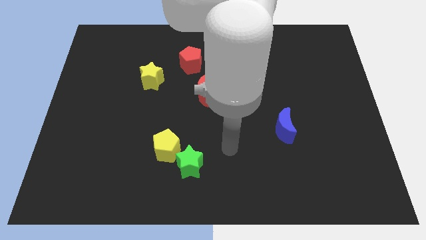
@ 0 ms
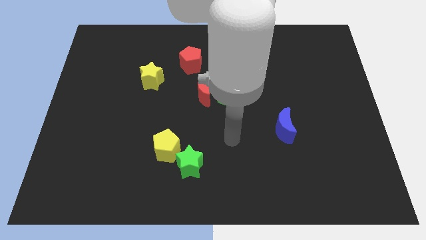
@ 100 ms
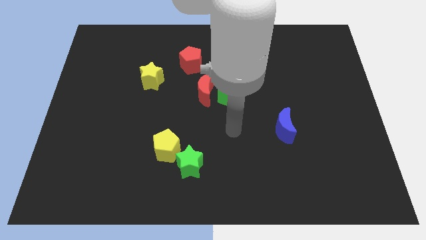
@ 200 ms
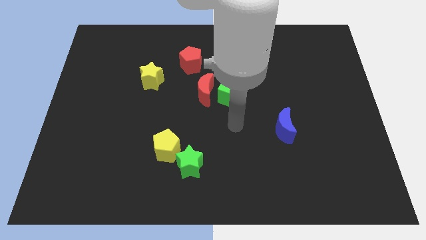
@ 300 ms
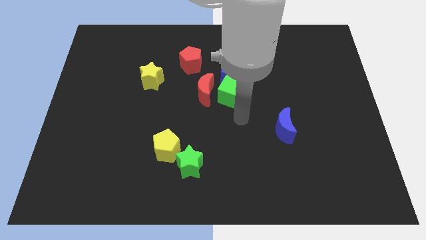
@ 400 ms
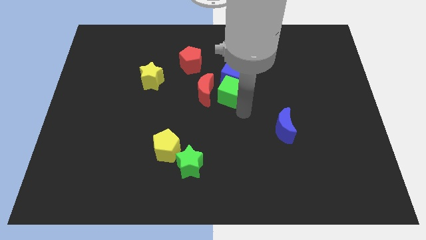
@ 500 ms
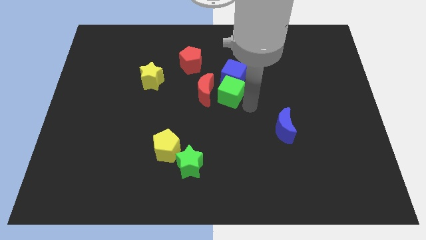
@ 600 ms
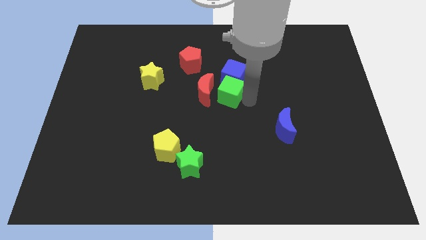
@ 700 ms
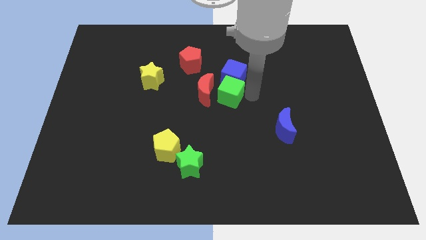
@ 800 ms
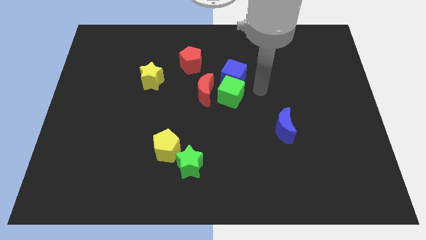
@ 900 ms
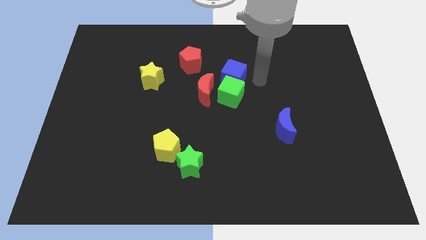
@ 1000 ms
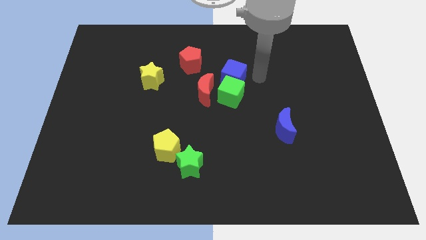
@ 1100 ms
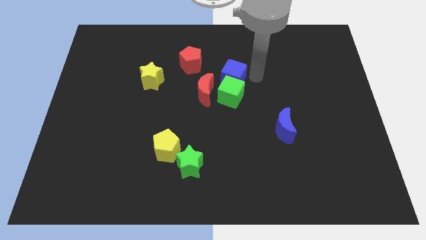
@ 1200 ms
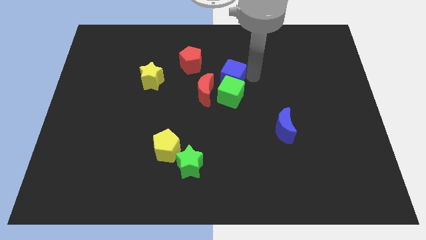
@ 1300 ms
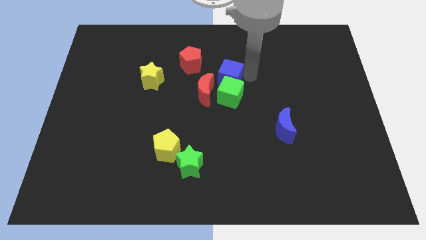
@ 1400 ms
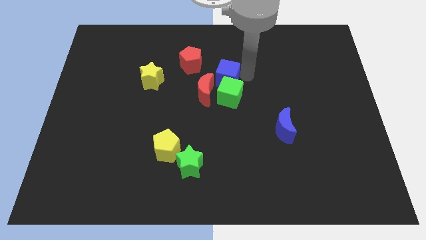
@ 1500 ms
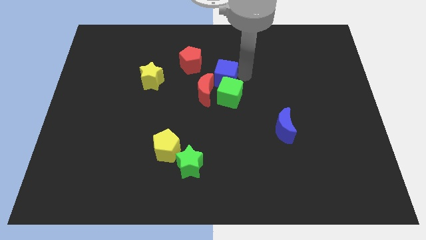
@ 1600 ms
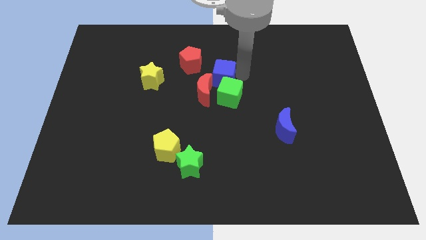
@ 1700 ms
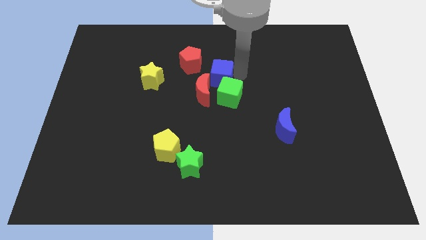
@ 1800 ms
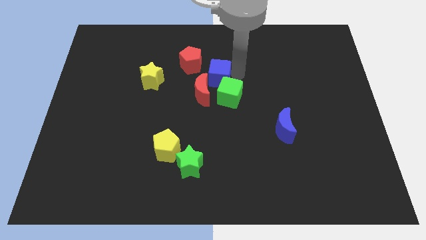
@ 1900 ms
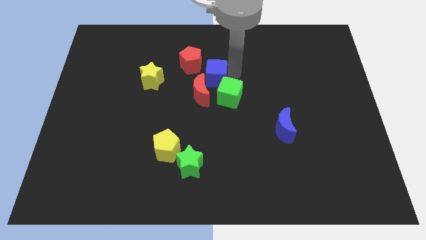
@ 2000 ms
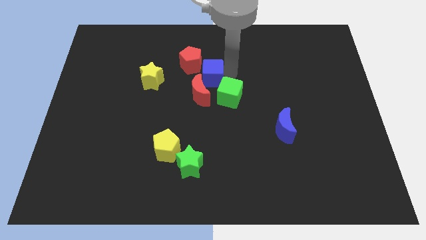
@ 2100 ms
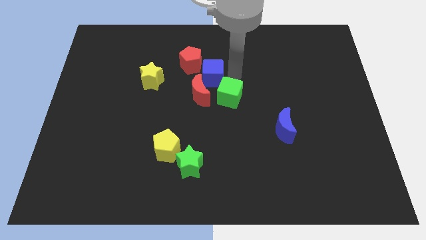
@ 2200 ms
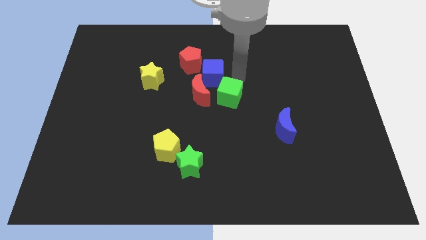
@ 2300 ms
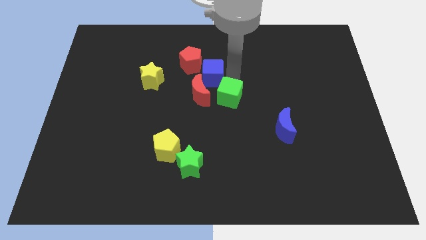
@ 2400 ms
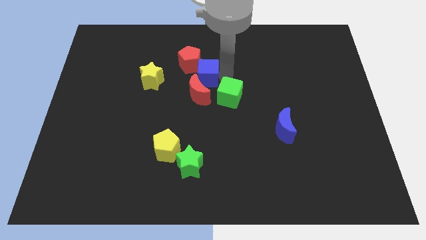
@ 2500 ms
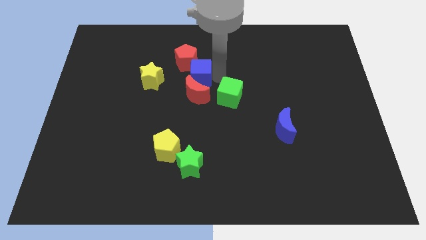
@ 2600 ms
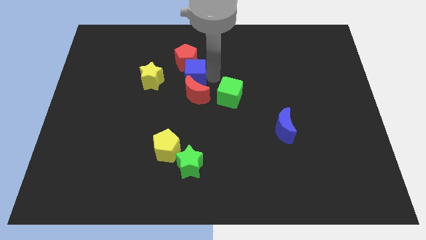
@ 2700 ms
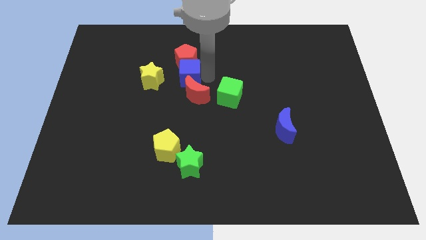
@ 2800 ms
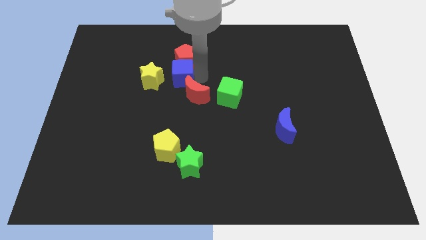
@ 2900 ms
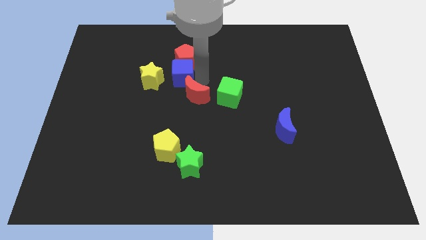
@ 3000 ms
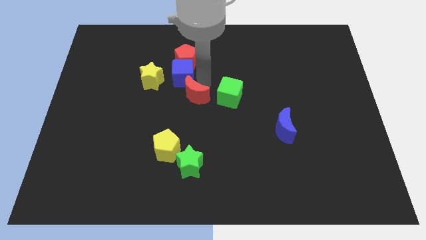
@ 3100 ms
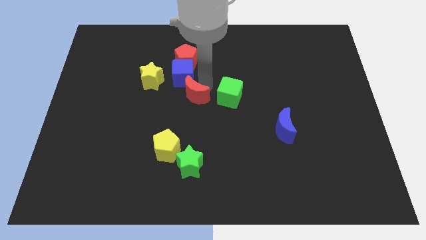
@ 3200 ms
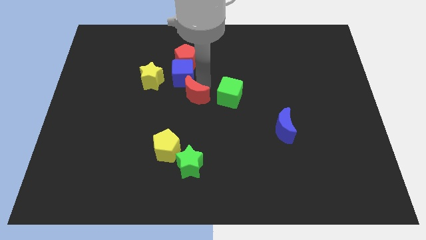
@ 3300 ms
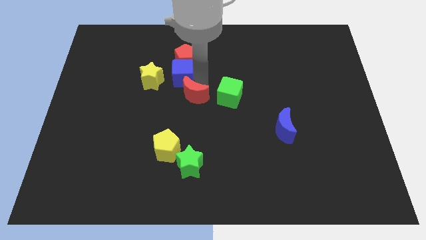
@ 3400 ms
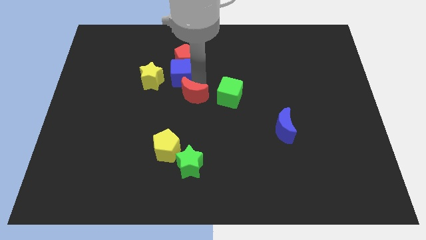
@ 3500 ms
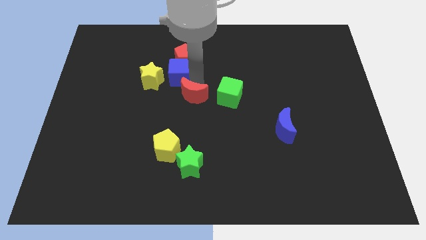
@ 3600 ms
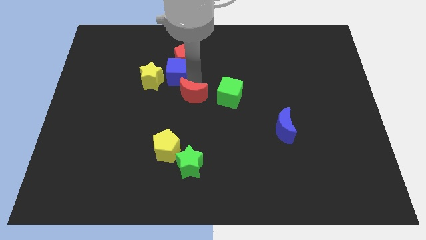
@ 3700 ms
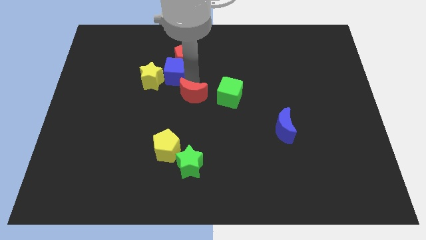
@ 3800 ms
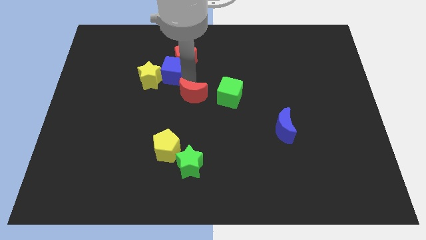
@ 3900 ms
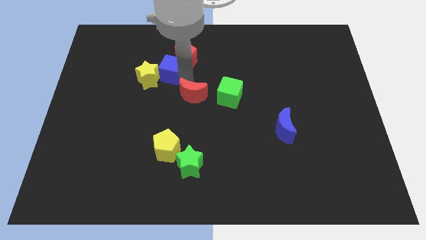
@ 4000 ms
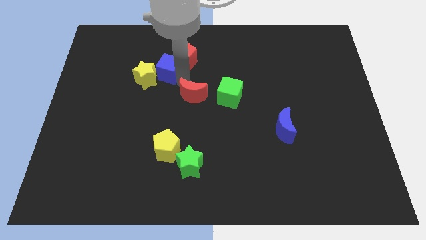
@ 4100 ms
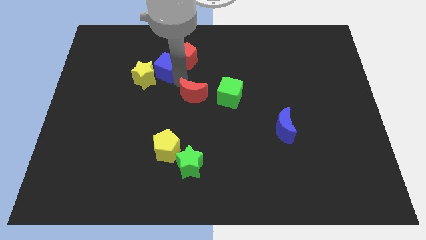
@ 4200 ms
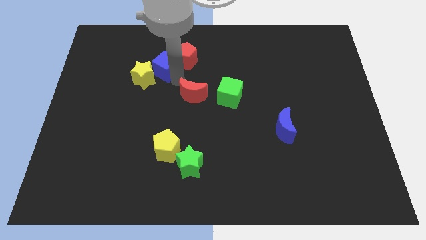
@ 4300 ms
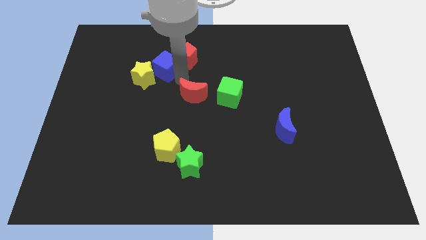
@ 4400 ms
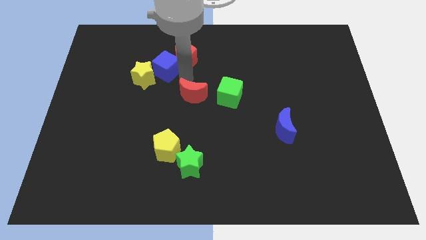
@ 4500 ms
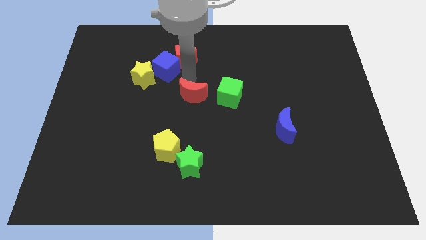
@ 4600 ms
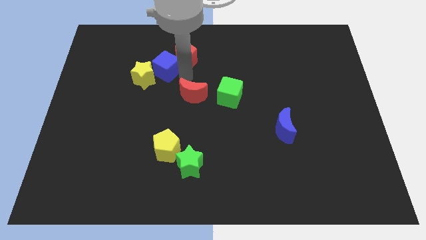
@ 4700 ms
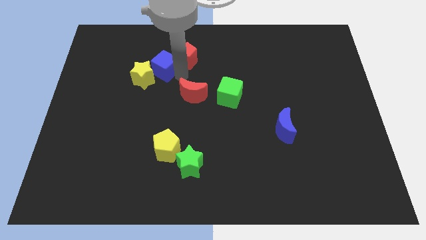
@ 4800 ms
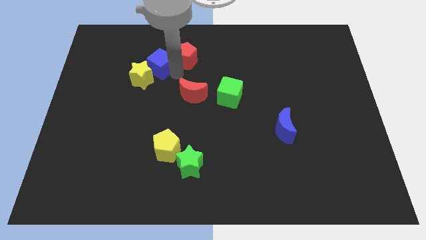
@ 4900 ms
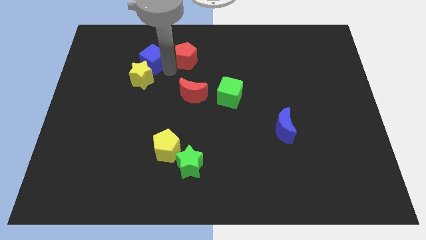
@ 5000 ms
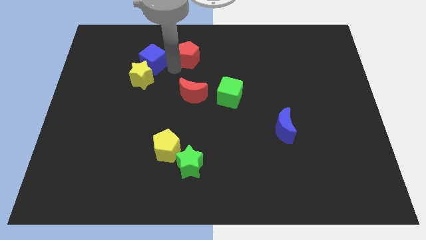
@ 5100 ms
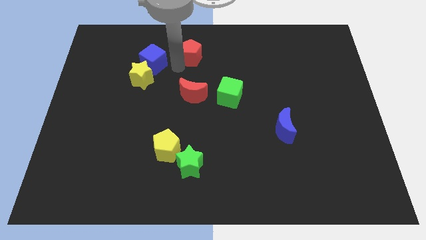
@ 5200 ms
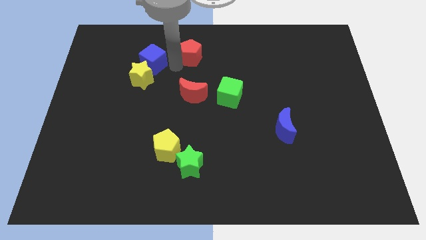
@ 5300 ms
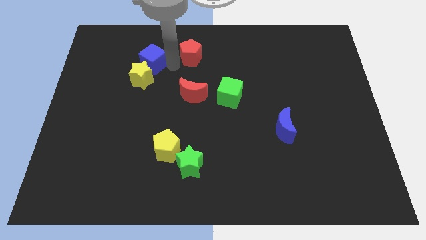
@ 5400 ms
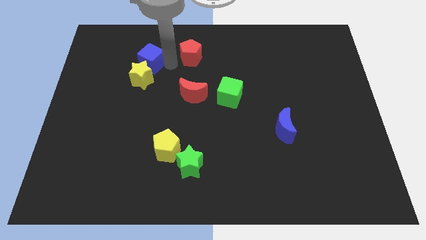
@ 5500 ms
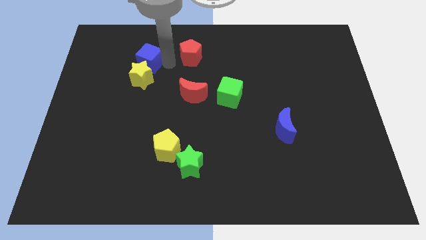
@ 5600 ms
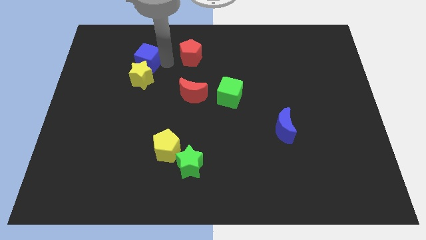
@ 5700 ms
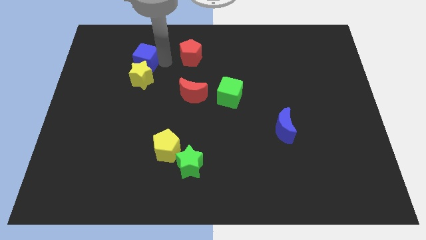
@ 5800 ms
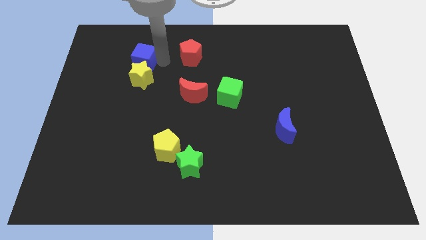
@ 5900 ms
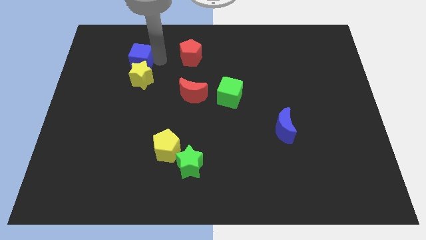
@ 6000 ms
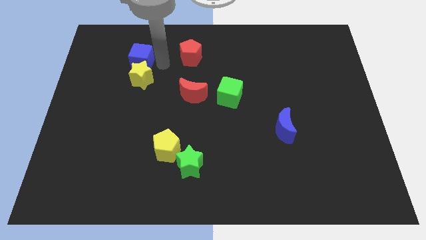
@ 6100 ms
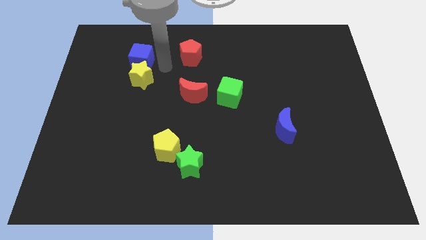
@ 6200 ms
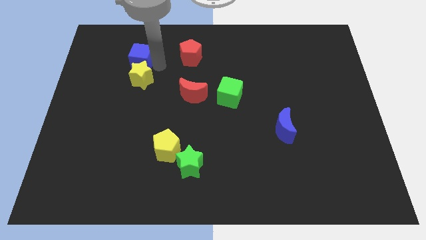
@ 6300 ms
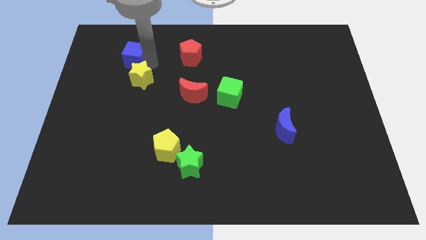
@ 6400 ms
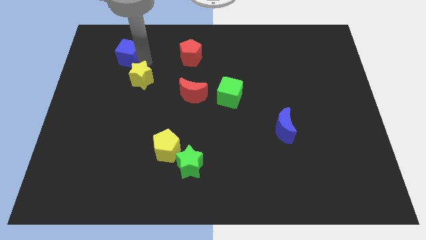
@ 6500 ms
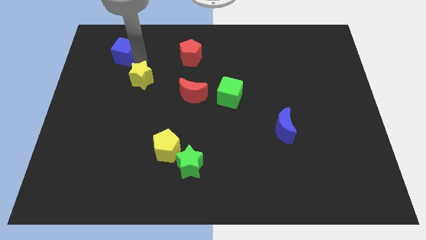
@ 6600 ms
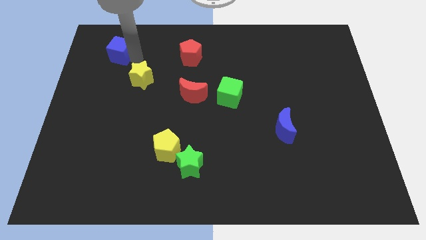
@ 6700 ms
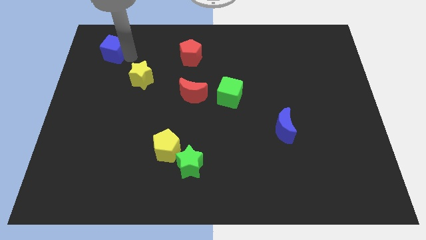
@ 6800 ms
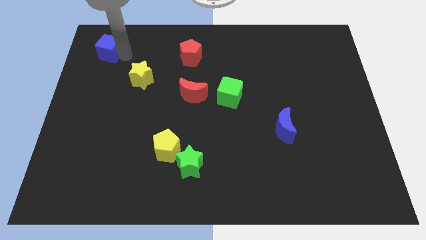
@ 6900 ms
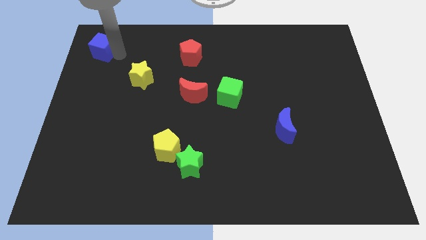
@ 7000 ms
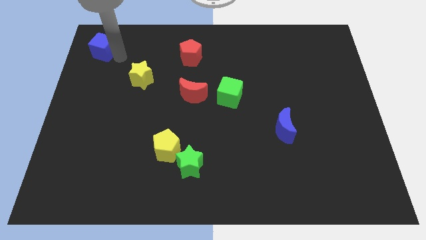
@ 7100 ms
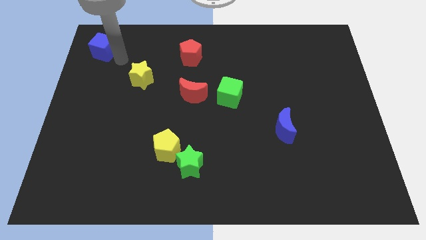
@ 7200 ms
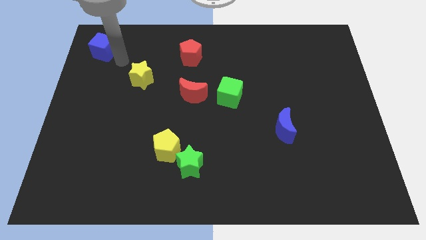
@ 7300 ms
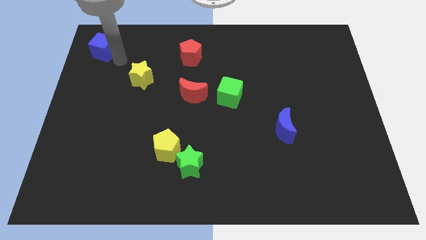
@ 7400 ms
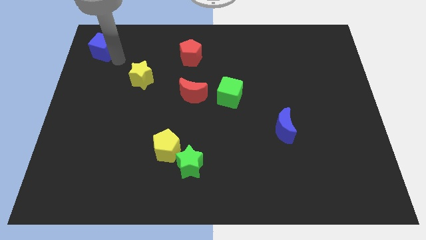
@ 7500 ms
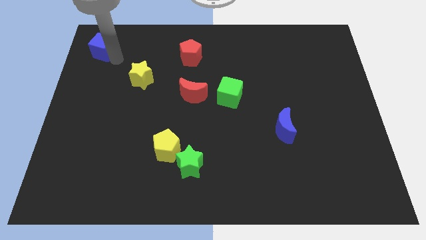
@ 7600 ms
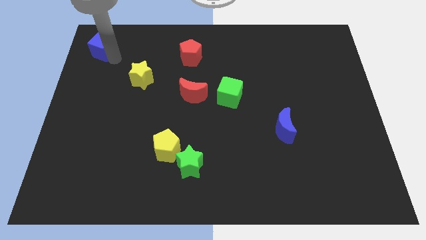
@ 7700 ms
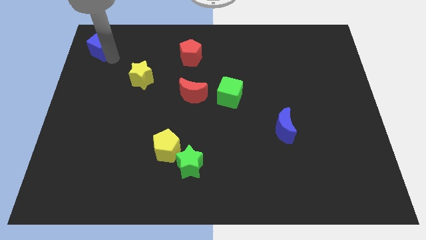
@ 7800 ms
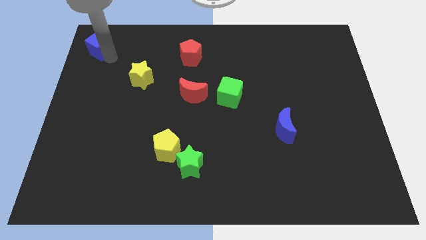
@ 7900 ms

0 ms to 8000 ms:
slide the blue cube to the upper left corner
